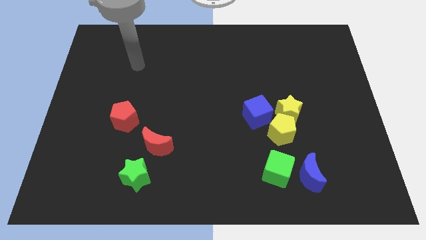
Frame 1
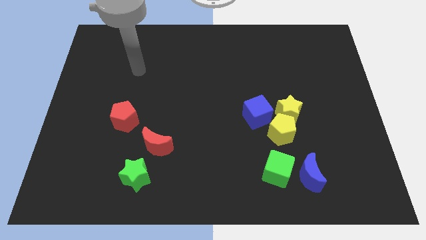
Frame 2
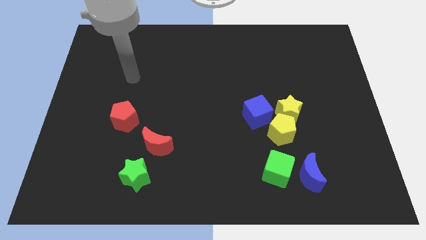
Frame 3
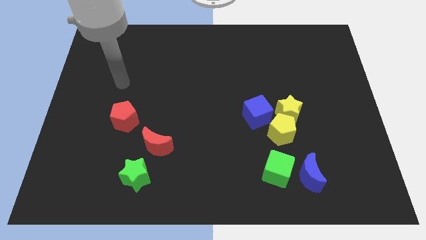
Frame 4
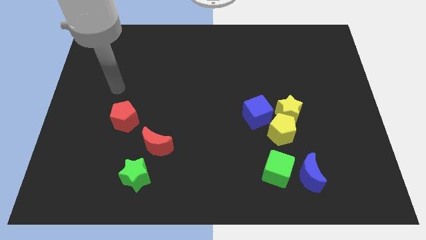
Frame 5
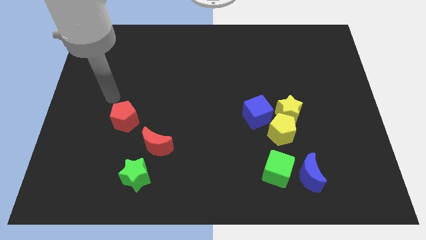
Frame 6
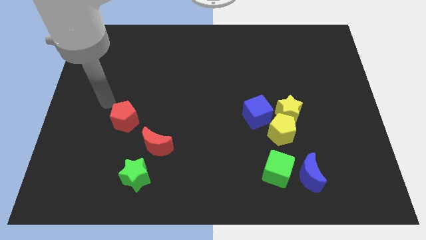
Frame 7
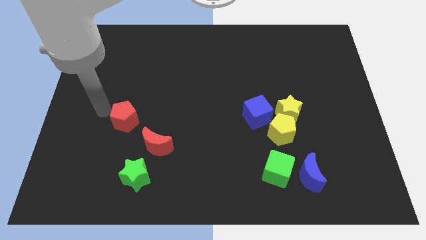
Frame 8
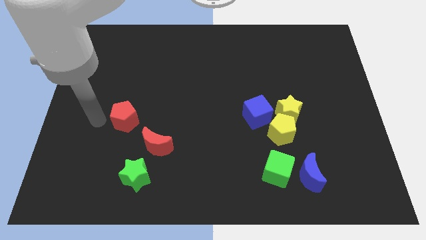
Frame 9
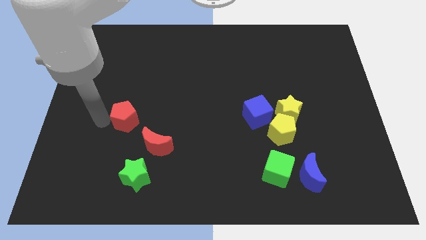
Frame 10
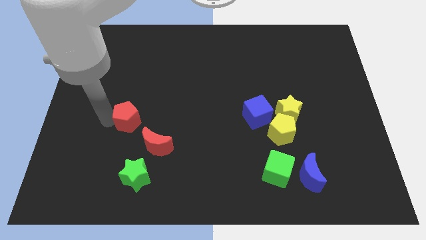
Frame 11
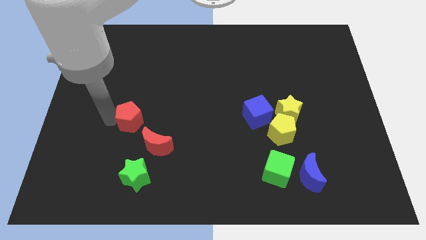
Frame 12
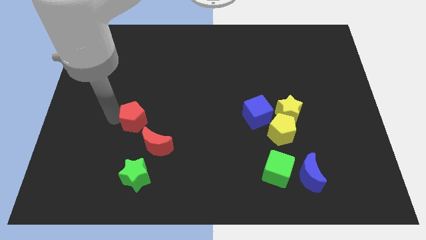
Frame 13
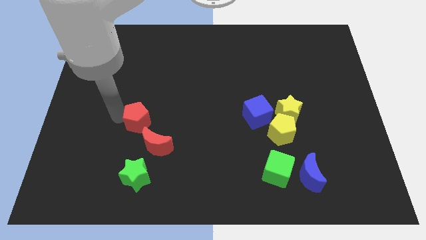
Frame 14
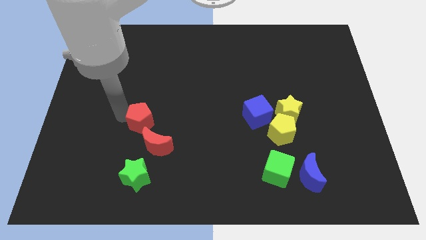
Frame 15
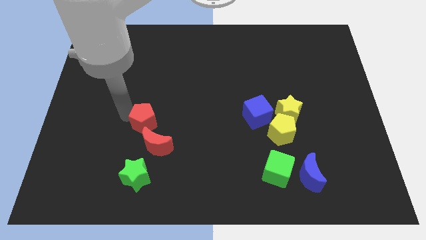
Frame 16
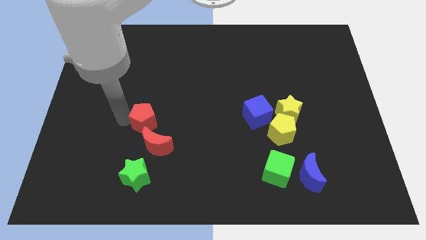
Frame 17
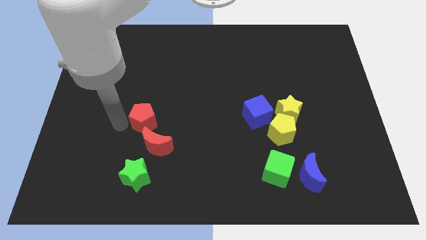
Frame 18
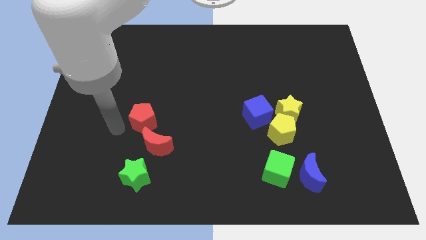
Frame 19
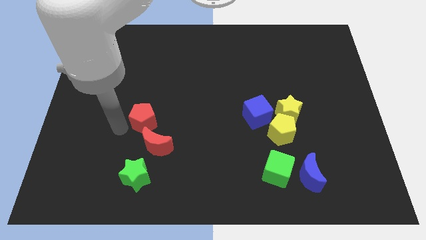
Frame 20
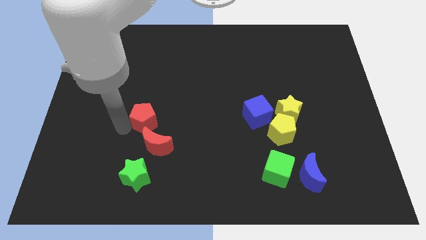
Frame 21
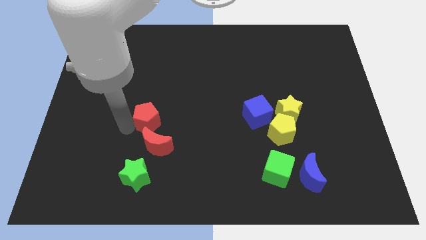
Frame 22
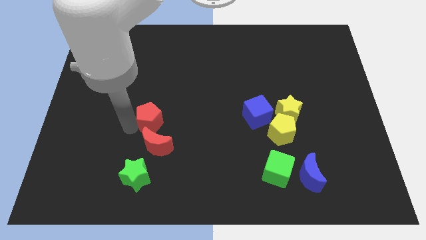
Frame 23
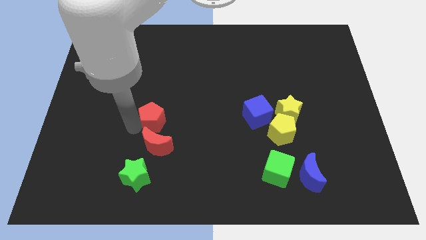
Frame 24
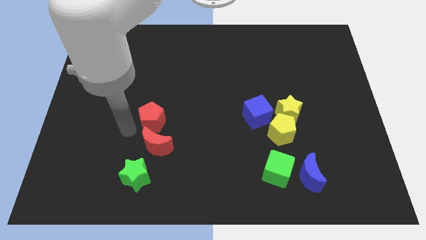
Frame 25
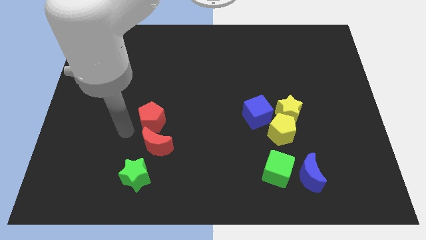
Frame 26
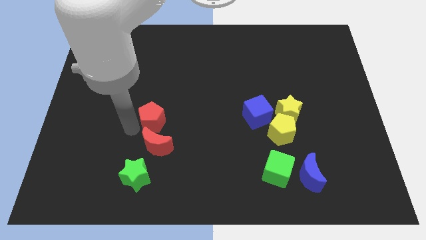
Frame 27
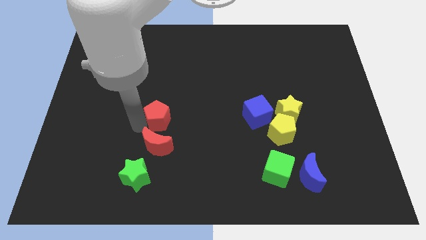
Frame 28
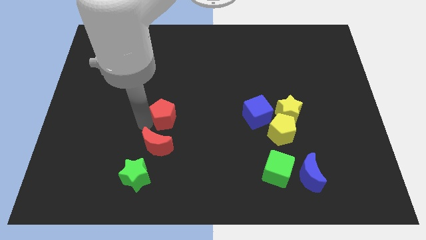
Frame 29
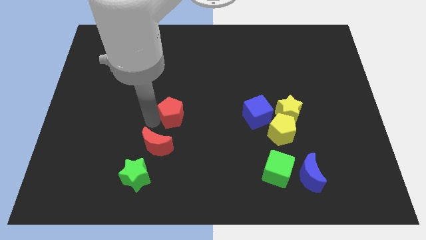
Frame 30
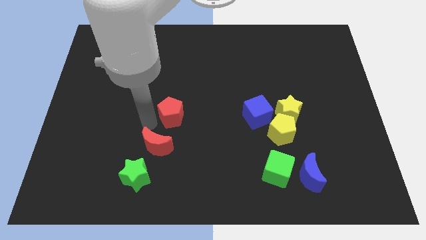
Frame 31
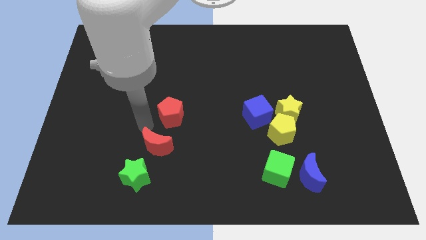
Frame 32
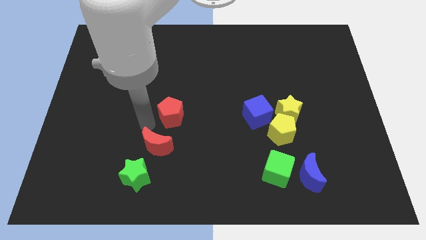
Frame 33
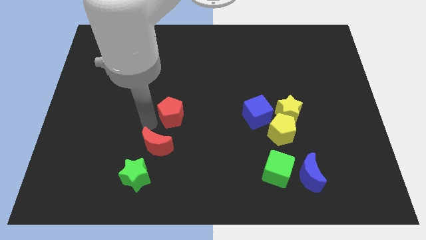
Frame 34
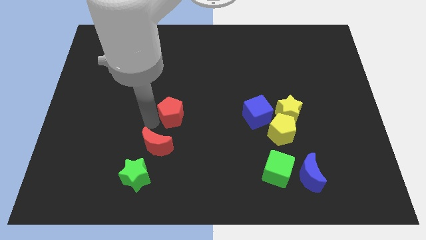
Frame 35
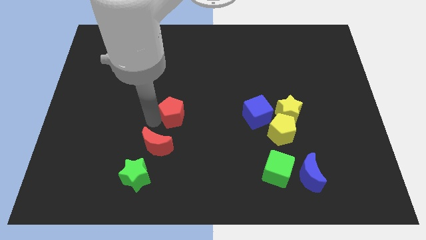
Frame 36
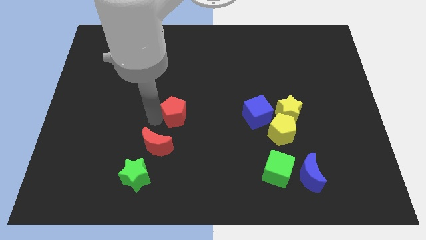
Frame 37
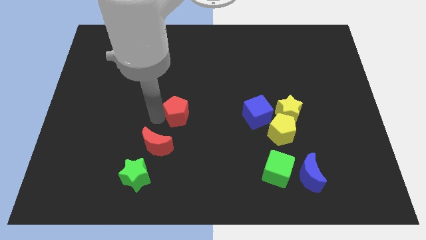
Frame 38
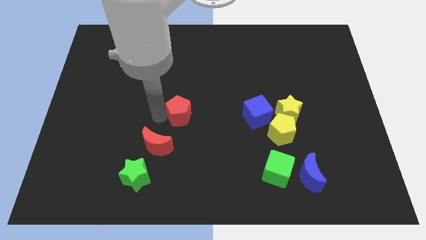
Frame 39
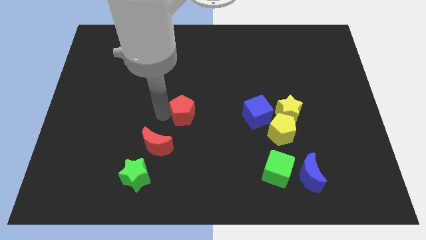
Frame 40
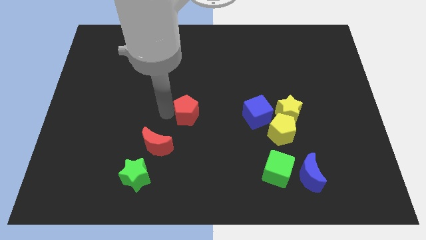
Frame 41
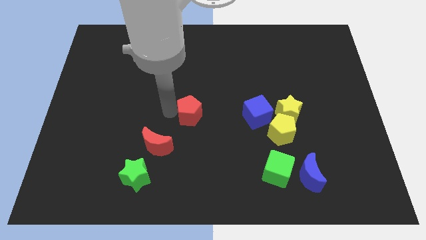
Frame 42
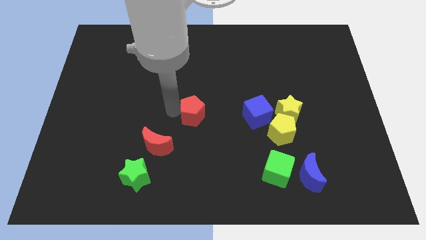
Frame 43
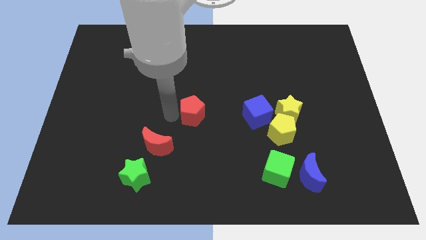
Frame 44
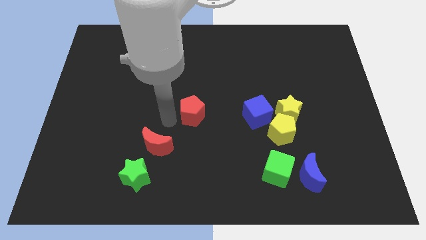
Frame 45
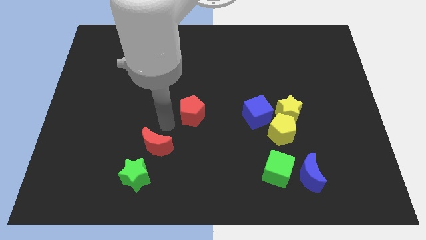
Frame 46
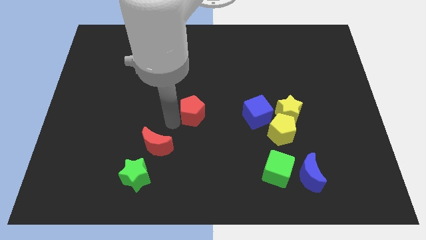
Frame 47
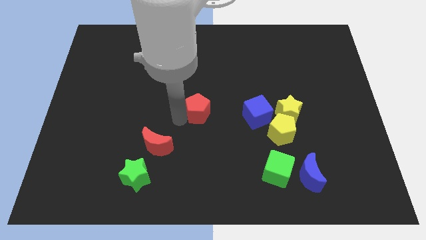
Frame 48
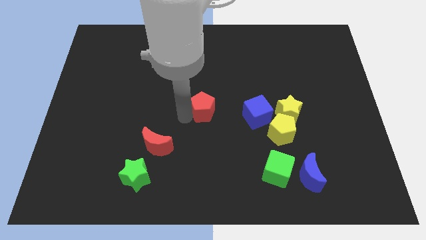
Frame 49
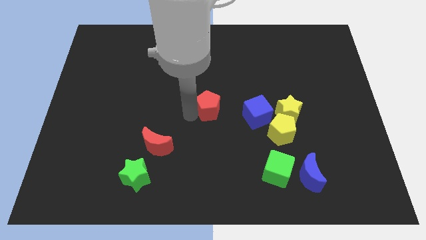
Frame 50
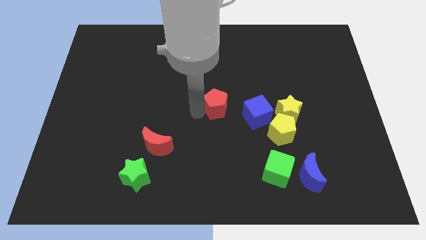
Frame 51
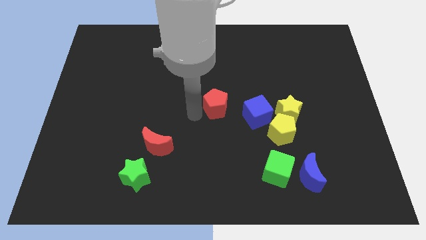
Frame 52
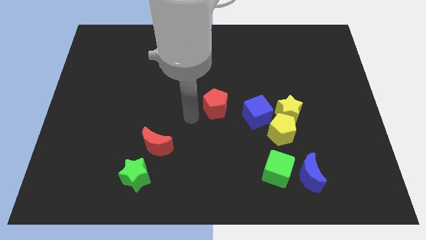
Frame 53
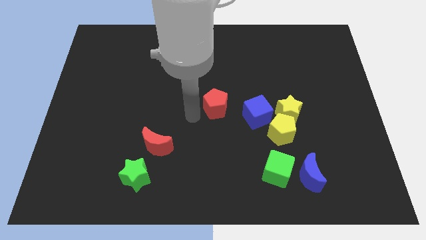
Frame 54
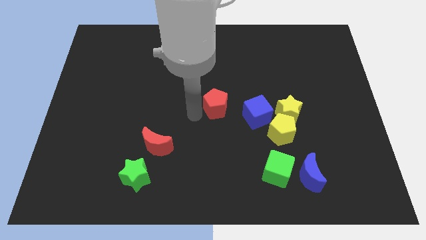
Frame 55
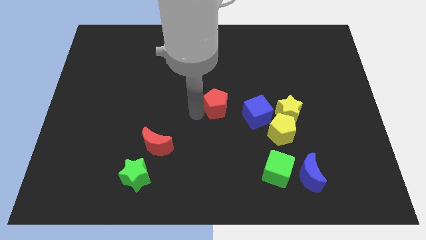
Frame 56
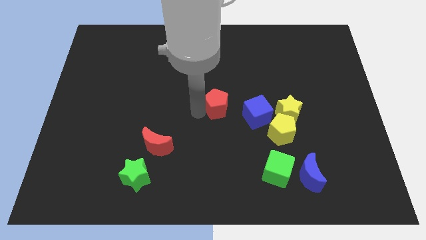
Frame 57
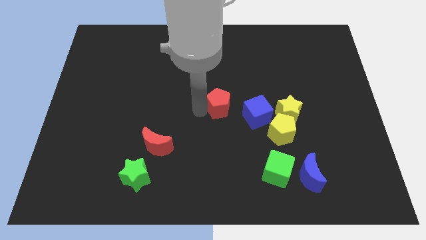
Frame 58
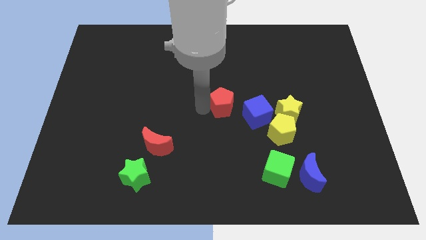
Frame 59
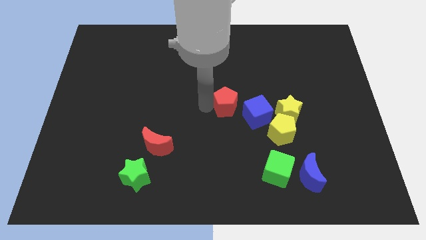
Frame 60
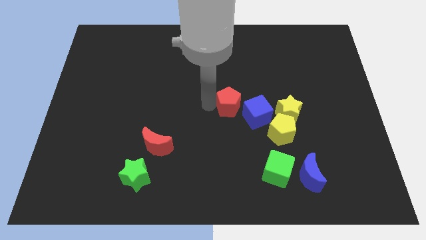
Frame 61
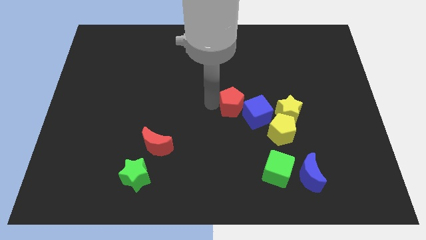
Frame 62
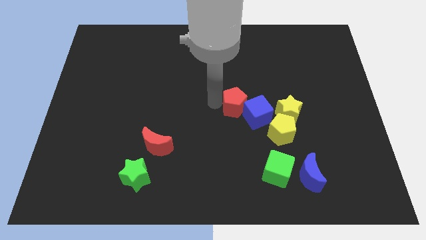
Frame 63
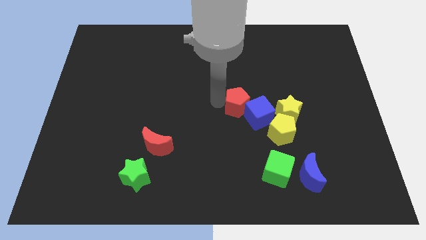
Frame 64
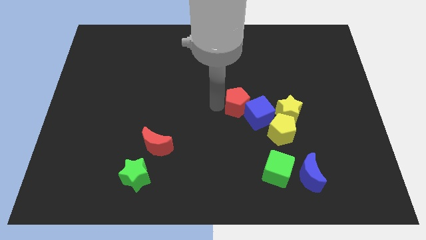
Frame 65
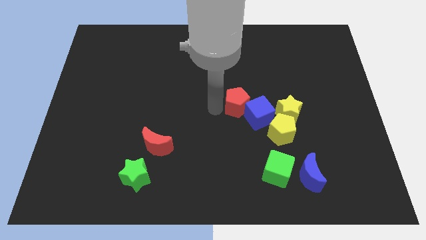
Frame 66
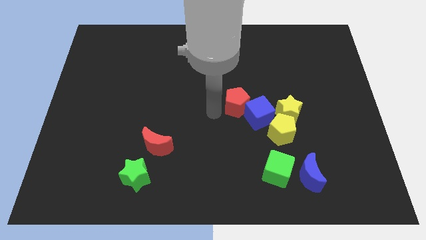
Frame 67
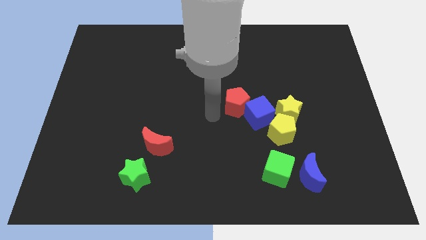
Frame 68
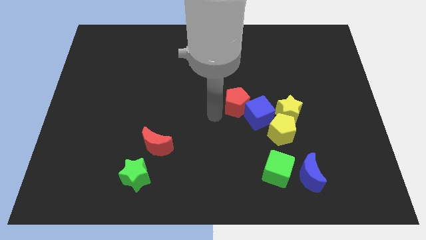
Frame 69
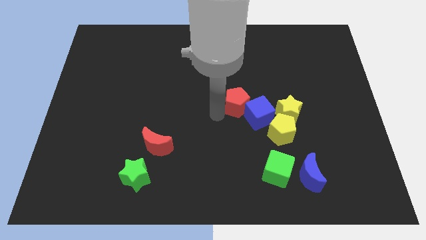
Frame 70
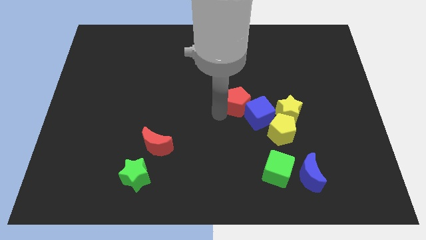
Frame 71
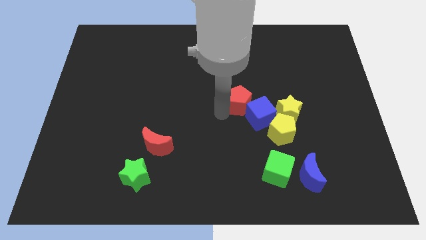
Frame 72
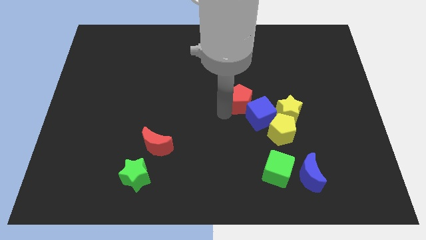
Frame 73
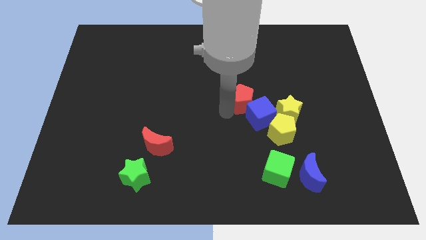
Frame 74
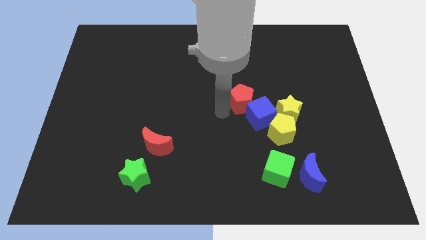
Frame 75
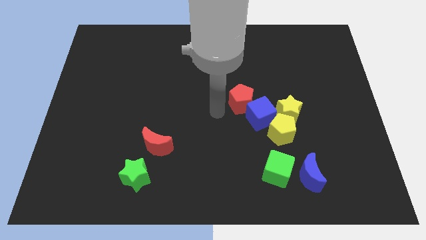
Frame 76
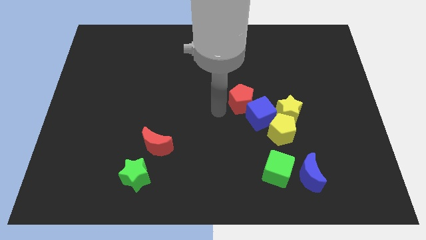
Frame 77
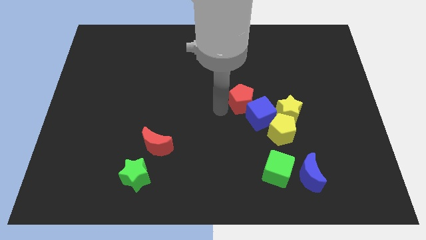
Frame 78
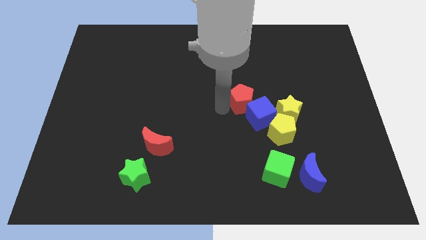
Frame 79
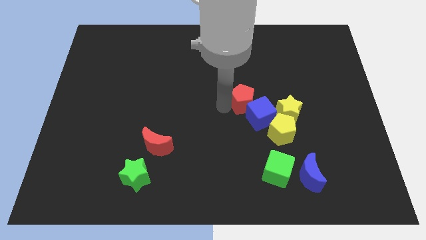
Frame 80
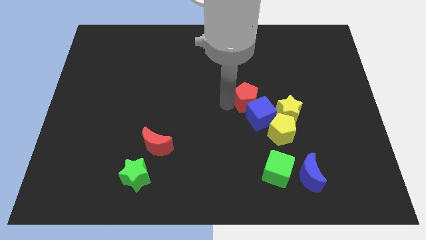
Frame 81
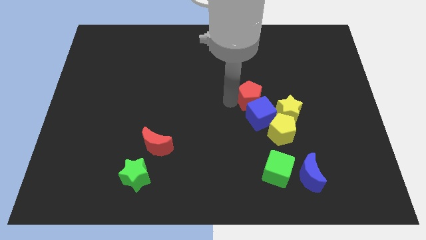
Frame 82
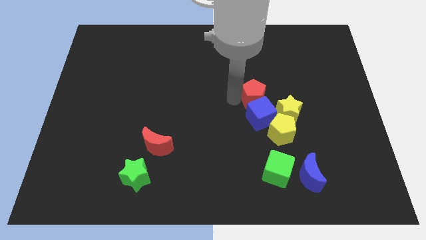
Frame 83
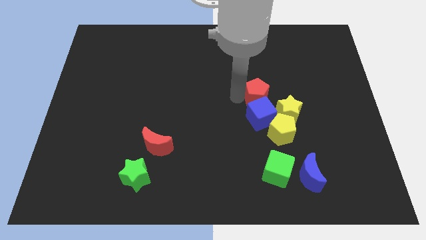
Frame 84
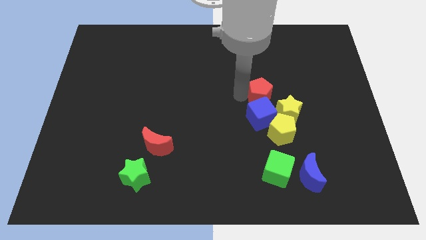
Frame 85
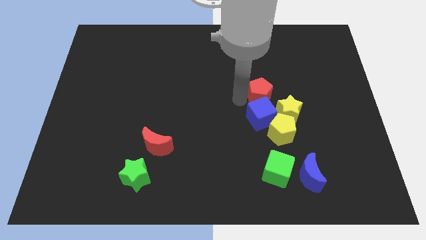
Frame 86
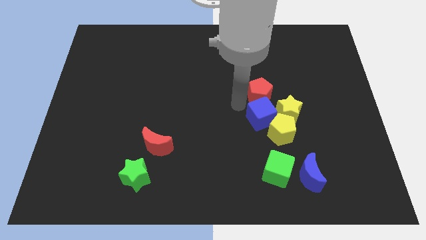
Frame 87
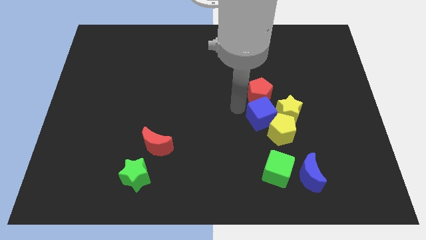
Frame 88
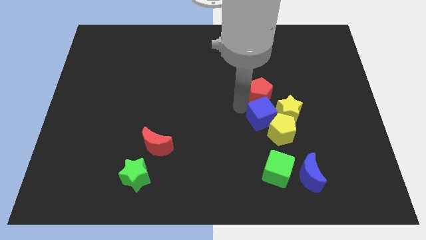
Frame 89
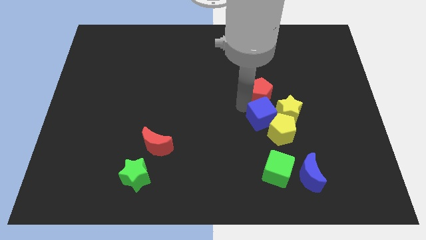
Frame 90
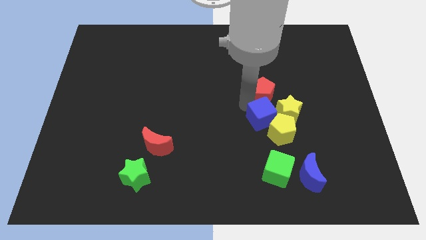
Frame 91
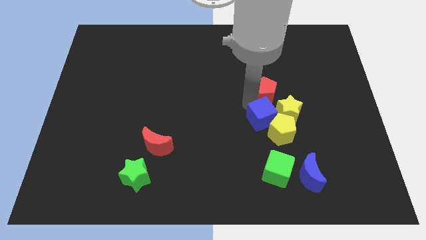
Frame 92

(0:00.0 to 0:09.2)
put the red pentagon above the yellow star
